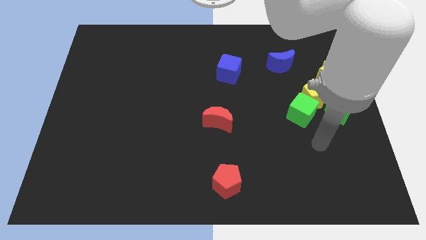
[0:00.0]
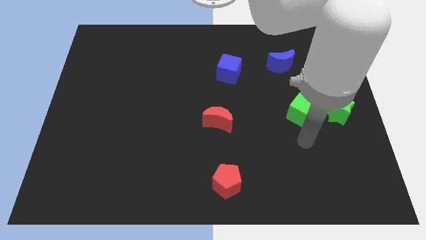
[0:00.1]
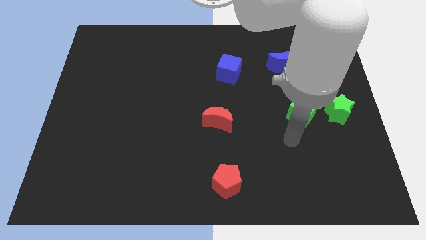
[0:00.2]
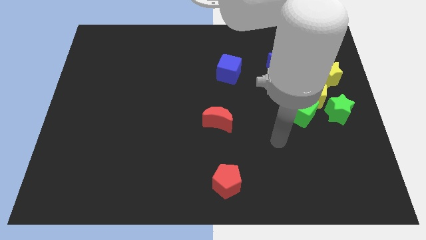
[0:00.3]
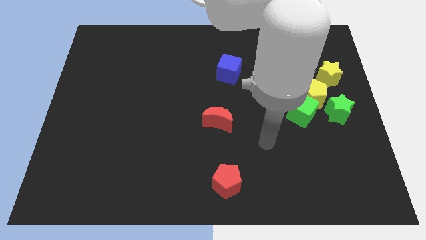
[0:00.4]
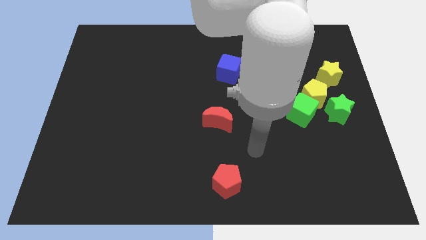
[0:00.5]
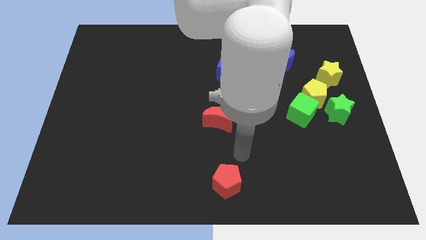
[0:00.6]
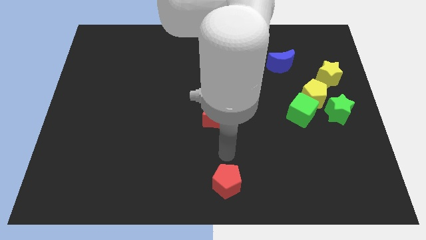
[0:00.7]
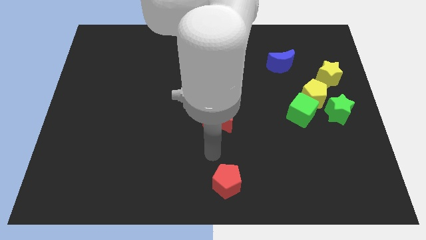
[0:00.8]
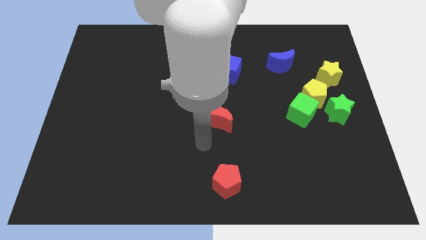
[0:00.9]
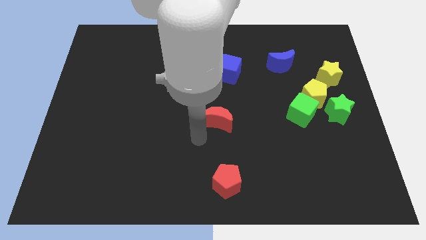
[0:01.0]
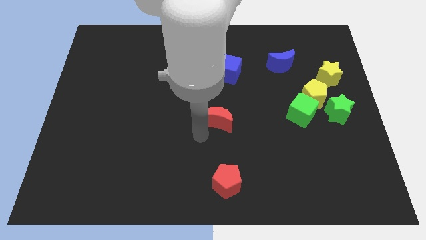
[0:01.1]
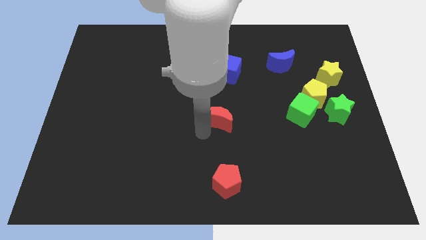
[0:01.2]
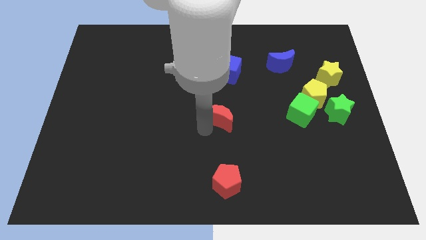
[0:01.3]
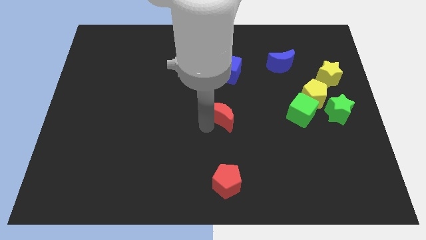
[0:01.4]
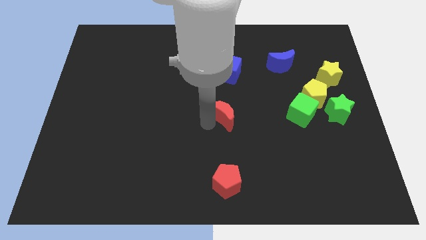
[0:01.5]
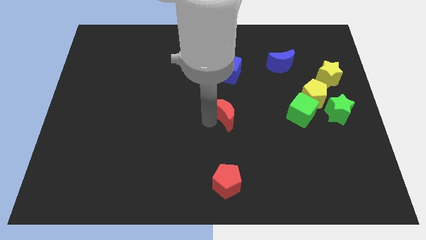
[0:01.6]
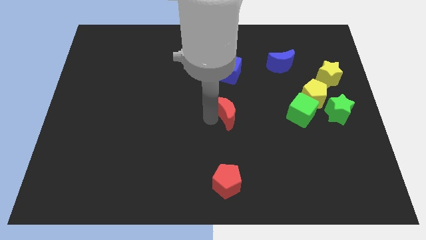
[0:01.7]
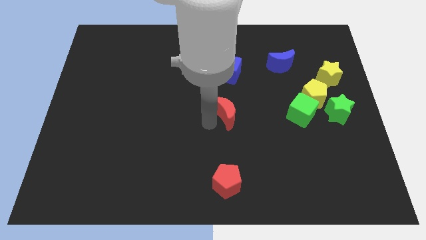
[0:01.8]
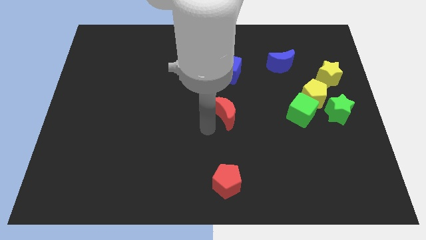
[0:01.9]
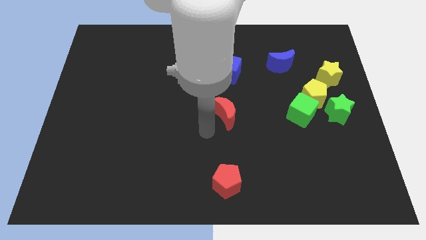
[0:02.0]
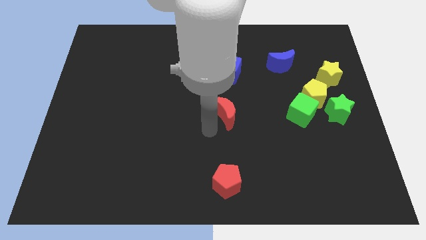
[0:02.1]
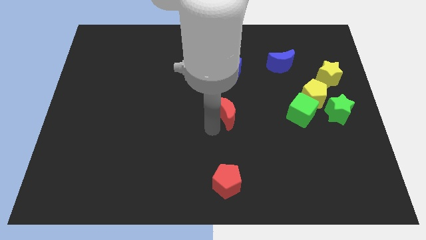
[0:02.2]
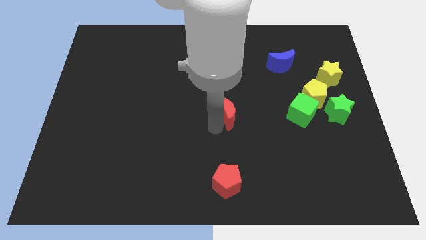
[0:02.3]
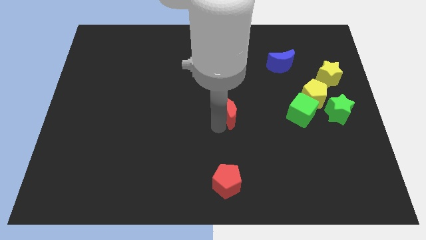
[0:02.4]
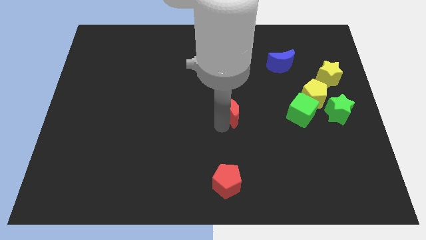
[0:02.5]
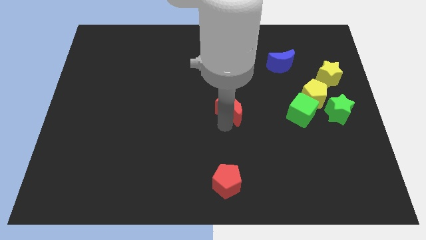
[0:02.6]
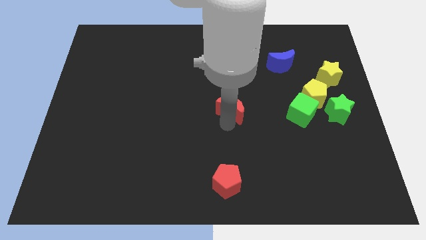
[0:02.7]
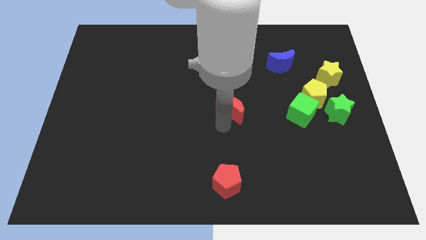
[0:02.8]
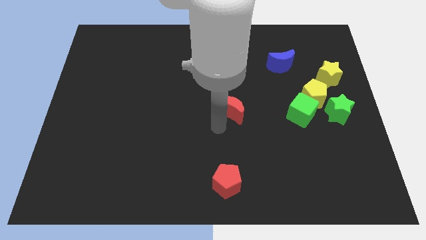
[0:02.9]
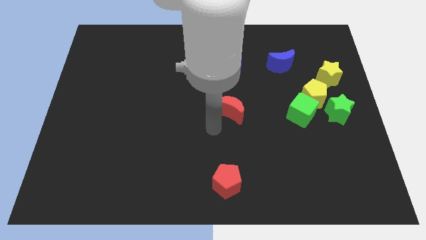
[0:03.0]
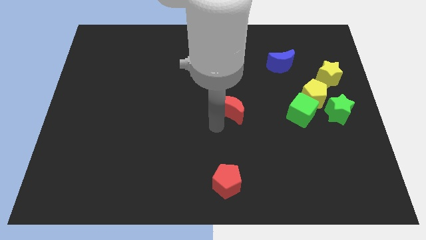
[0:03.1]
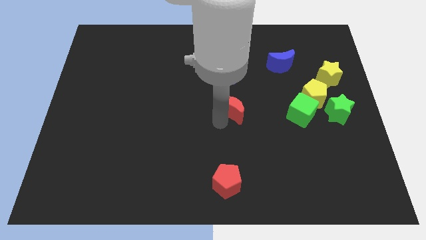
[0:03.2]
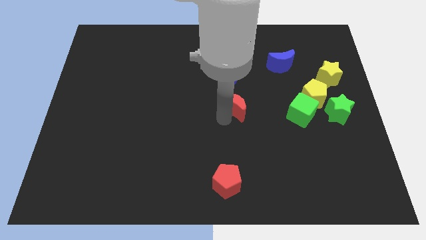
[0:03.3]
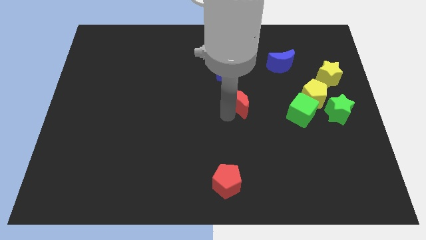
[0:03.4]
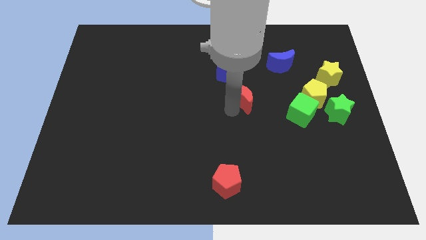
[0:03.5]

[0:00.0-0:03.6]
slightly slide the red moon up and right

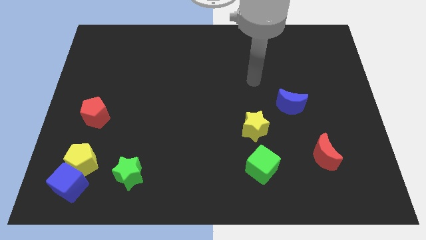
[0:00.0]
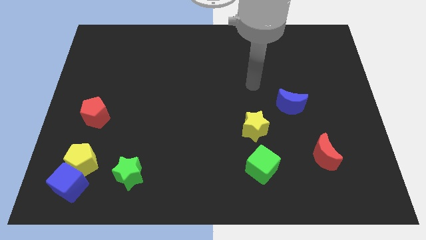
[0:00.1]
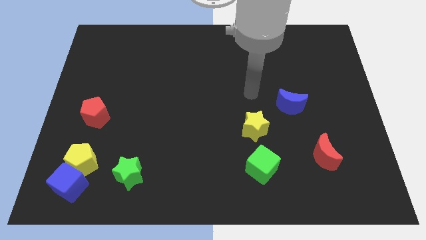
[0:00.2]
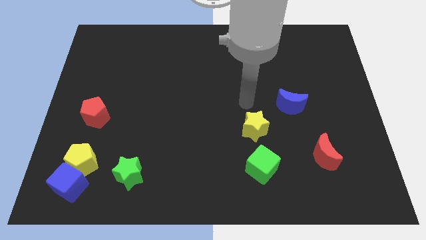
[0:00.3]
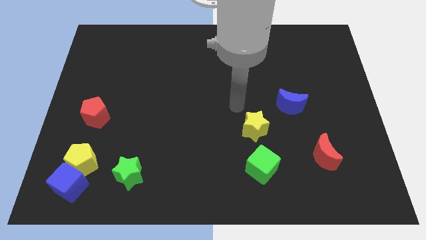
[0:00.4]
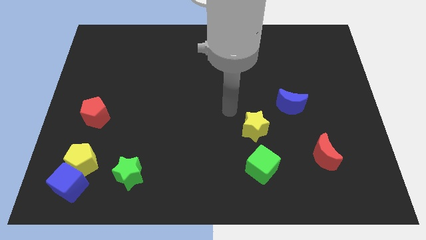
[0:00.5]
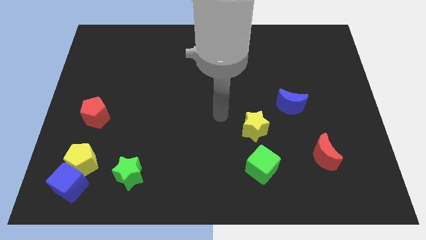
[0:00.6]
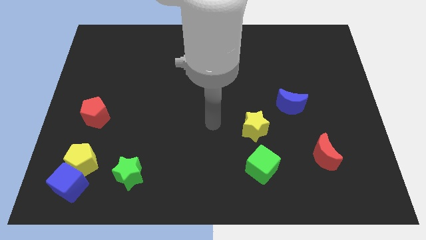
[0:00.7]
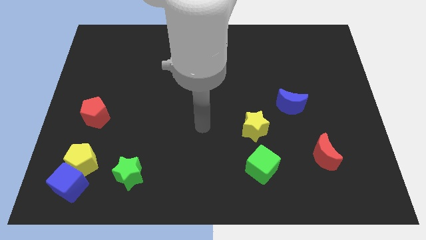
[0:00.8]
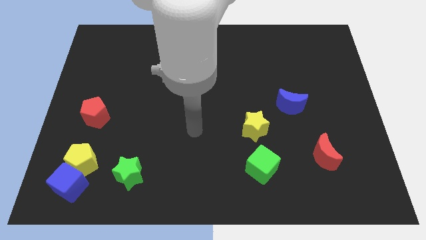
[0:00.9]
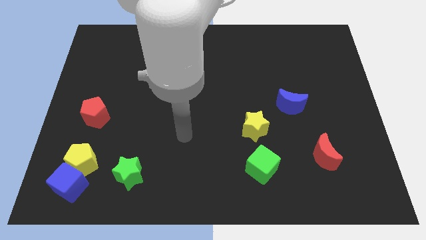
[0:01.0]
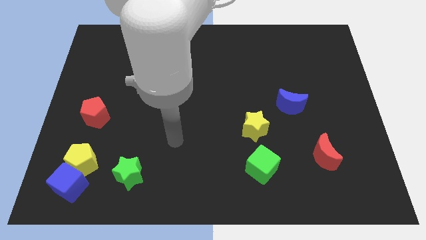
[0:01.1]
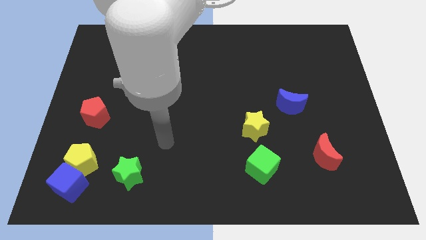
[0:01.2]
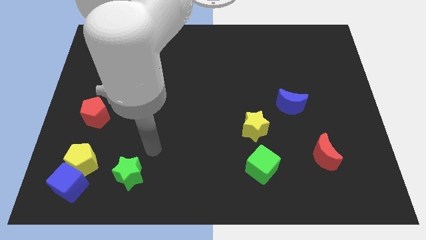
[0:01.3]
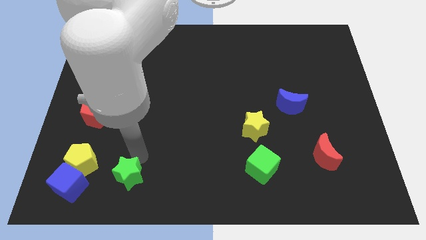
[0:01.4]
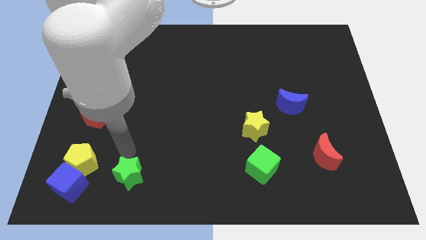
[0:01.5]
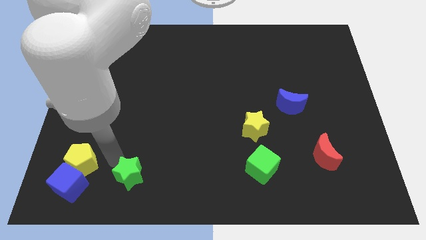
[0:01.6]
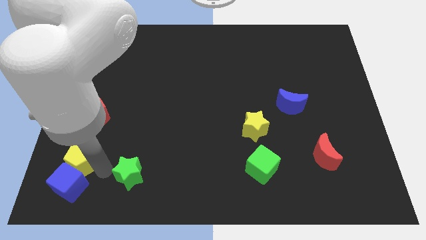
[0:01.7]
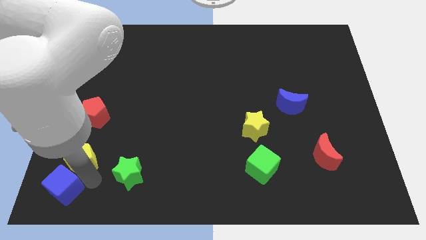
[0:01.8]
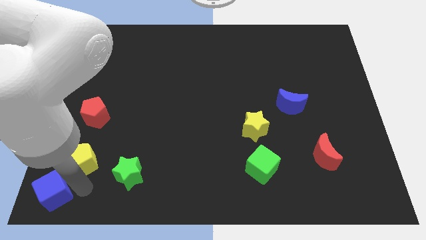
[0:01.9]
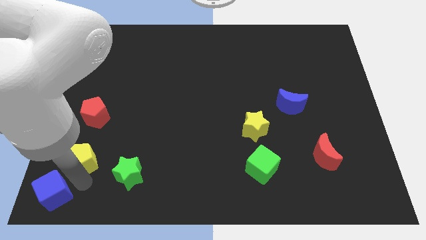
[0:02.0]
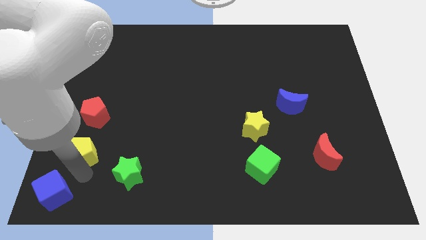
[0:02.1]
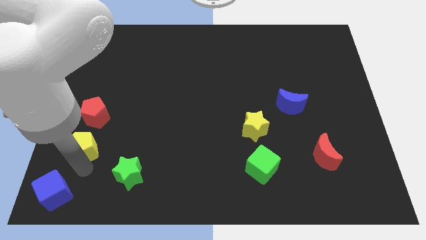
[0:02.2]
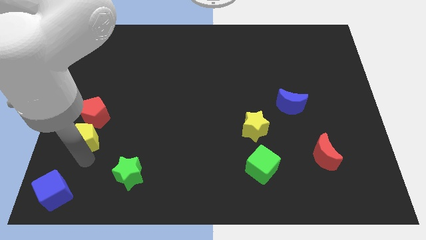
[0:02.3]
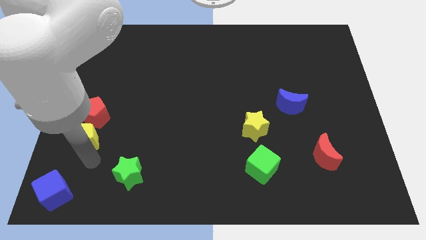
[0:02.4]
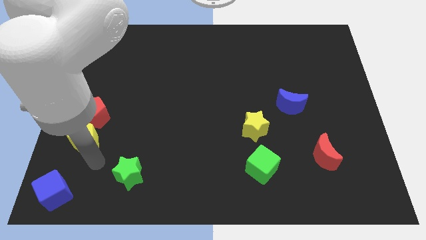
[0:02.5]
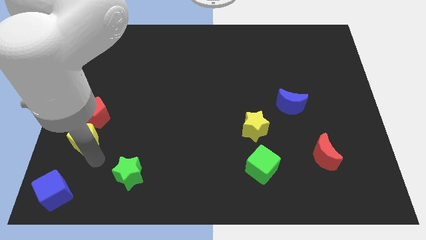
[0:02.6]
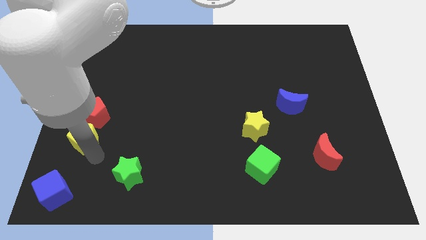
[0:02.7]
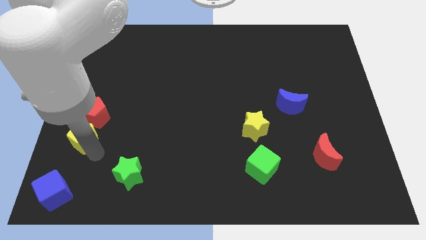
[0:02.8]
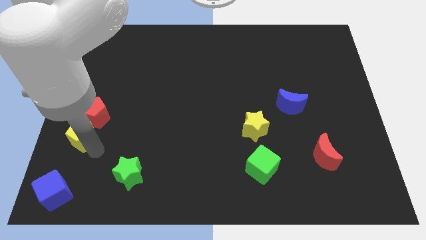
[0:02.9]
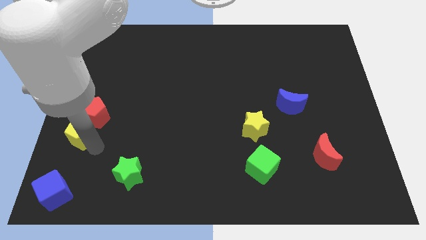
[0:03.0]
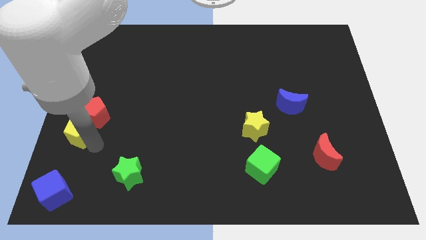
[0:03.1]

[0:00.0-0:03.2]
slightly push the yellow pentagon upwards

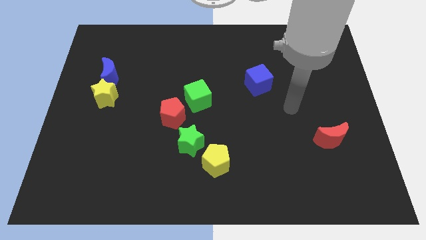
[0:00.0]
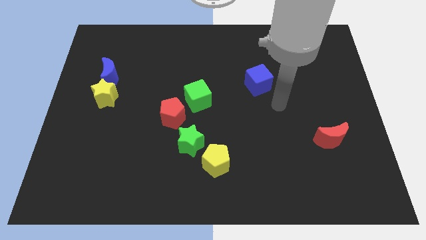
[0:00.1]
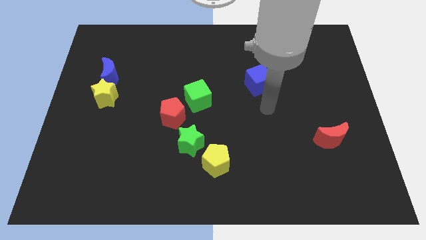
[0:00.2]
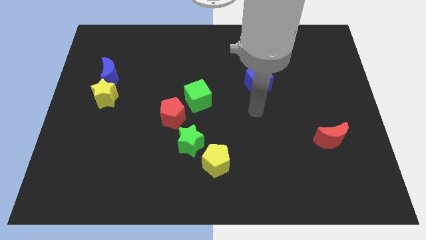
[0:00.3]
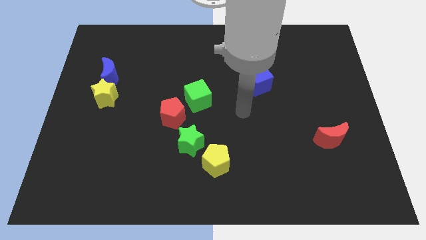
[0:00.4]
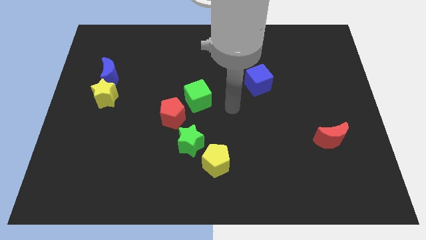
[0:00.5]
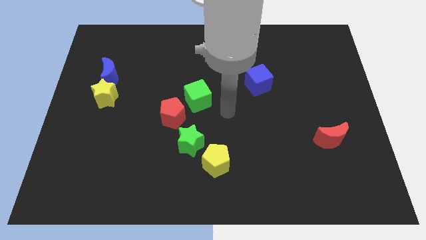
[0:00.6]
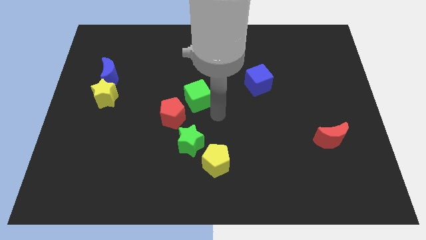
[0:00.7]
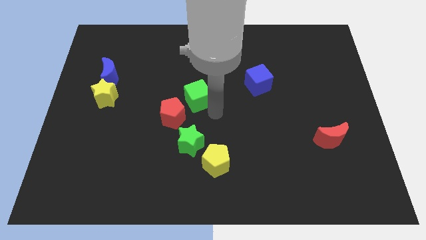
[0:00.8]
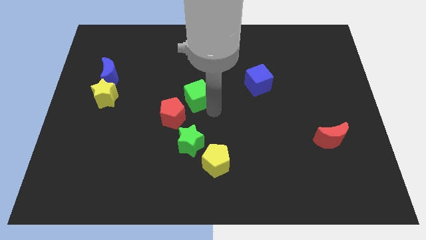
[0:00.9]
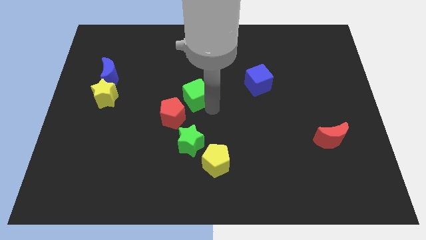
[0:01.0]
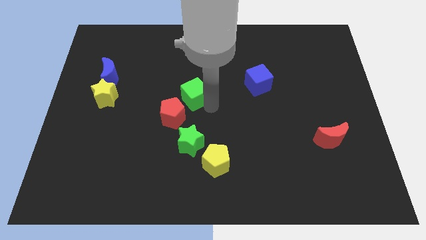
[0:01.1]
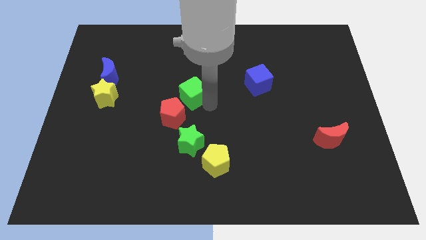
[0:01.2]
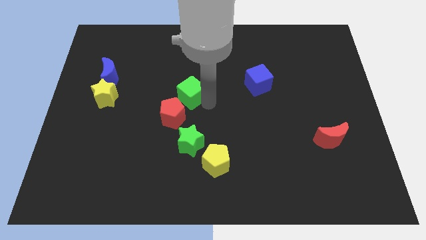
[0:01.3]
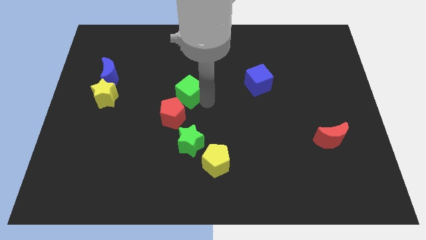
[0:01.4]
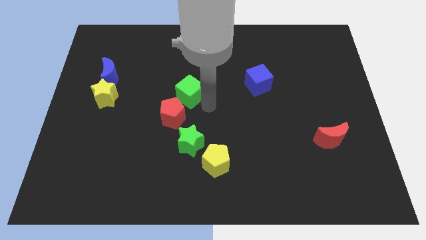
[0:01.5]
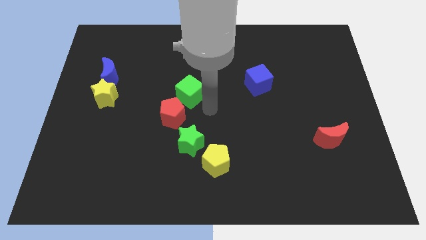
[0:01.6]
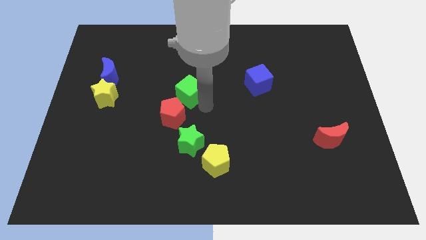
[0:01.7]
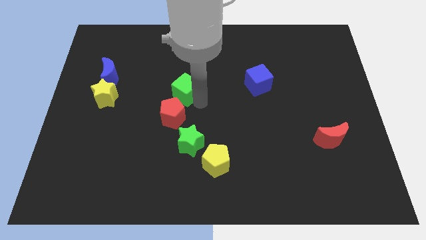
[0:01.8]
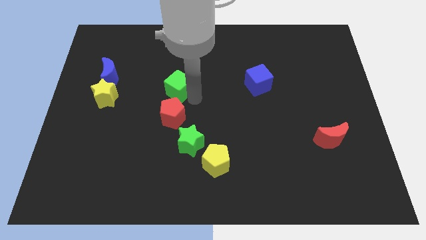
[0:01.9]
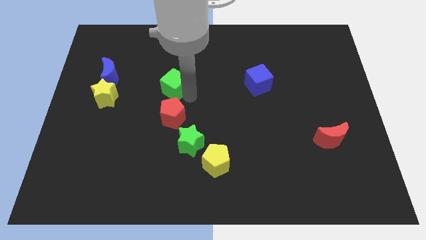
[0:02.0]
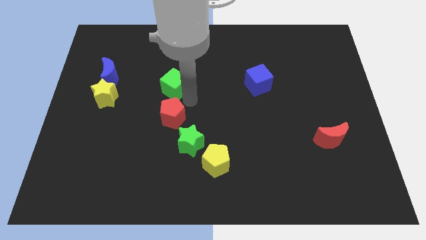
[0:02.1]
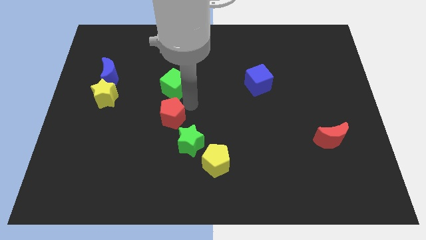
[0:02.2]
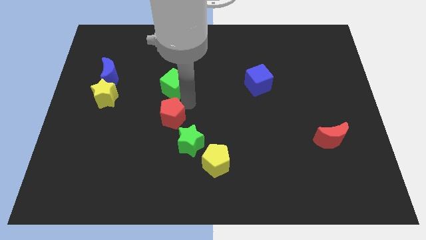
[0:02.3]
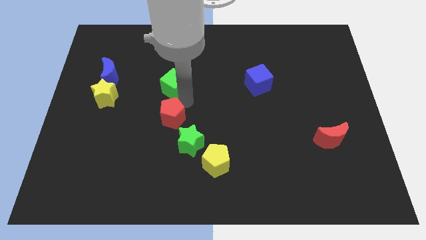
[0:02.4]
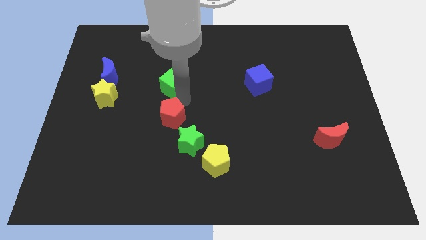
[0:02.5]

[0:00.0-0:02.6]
slide the green cube up and to the left diagonally a bit
